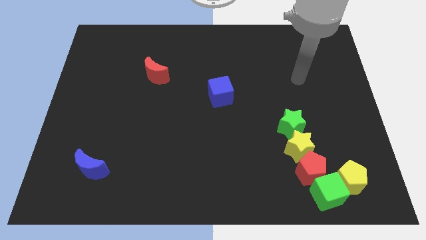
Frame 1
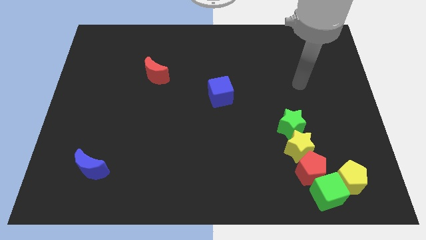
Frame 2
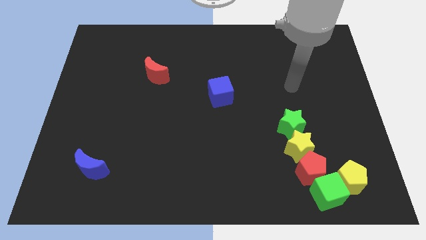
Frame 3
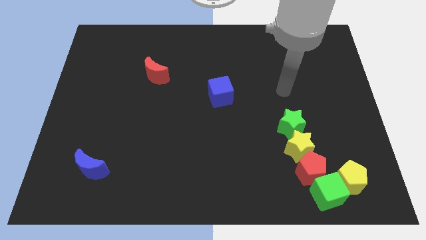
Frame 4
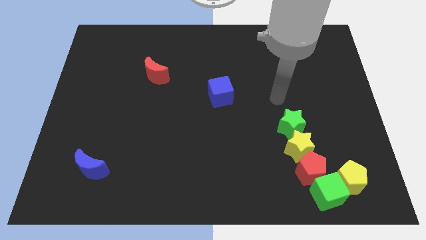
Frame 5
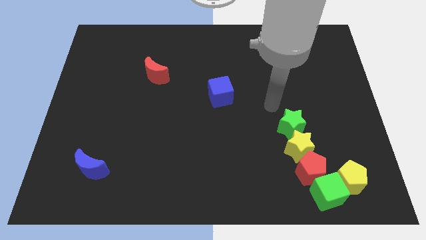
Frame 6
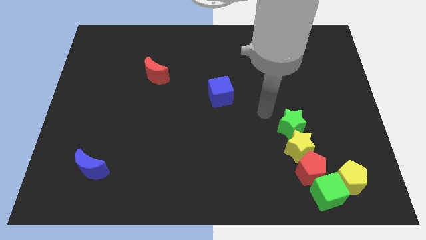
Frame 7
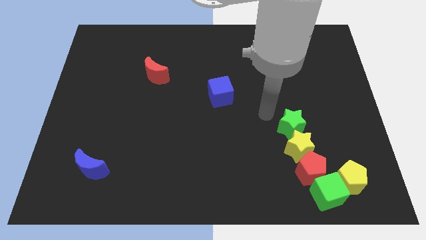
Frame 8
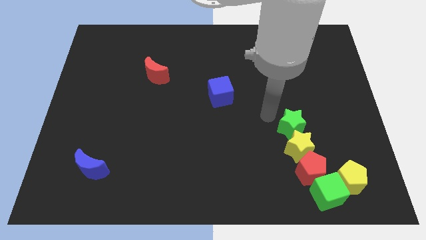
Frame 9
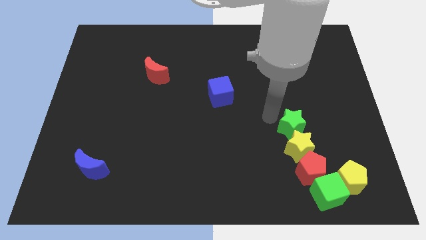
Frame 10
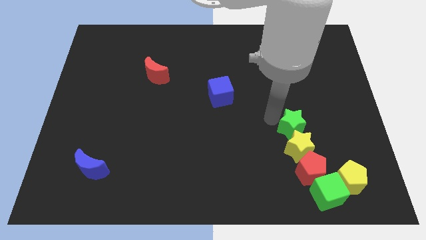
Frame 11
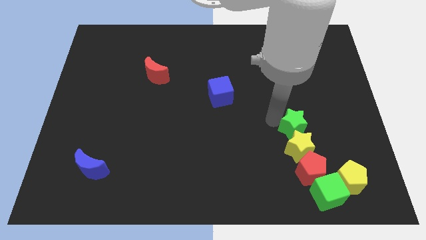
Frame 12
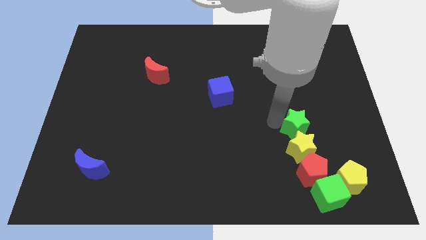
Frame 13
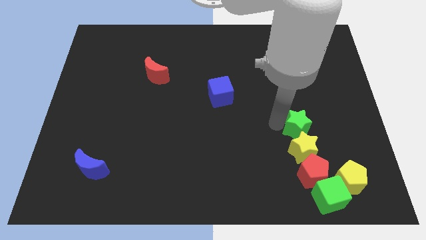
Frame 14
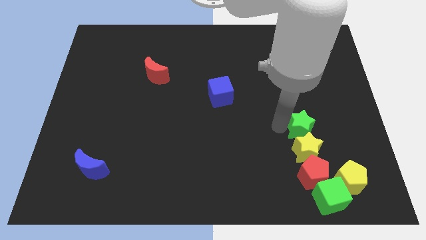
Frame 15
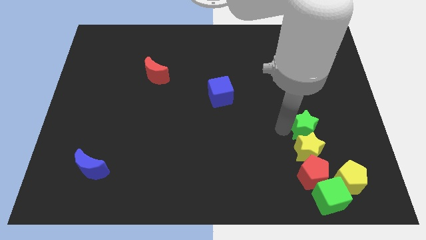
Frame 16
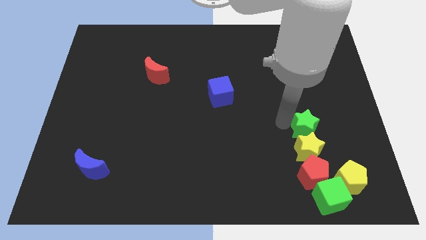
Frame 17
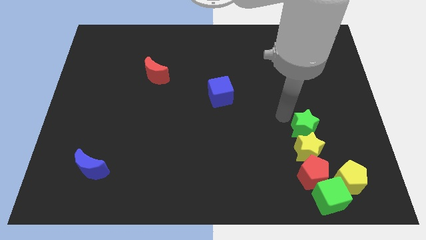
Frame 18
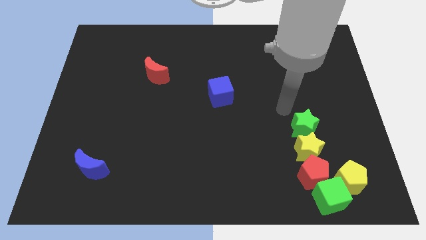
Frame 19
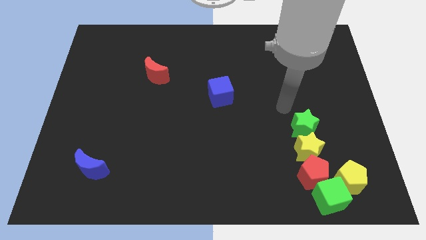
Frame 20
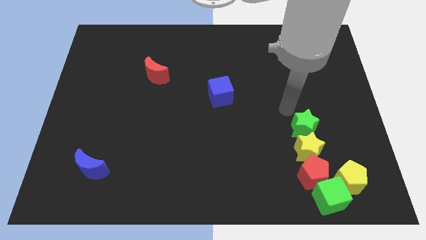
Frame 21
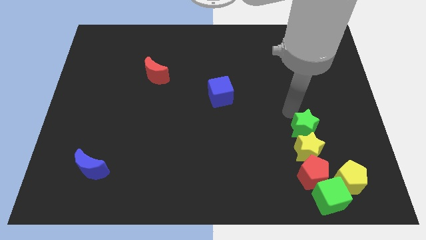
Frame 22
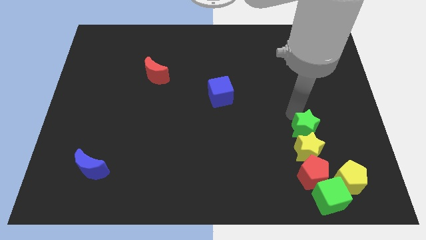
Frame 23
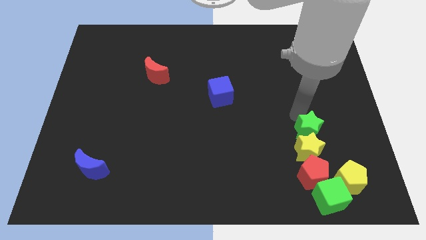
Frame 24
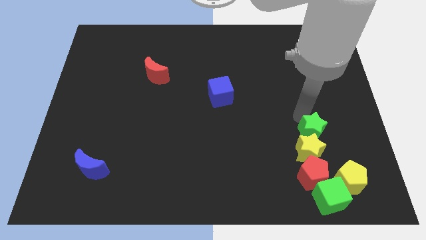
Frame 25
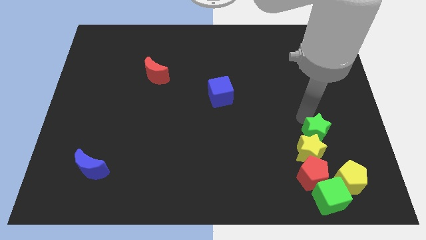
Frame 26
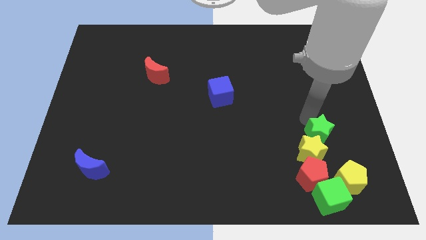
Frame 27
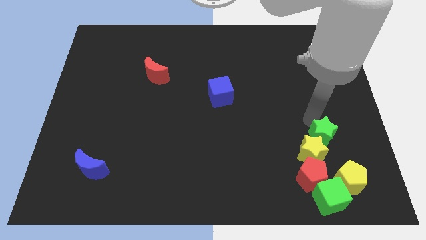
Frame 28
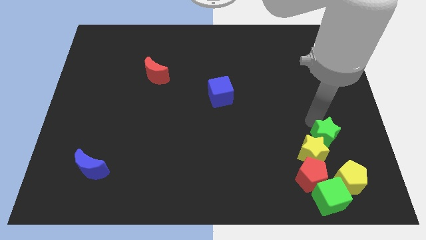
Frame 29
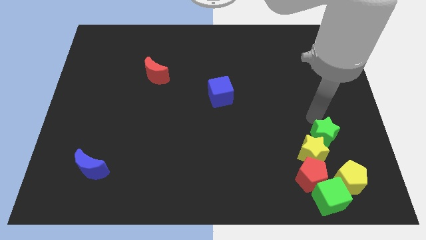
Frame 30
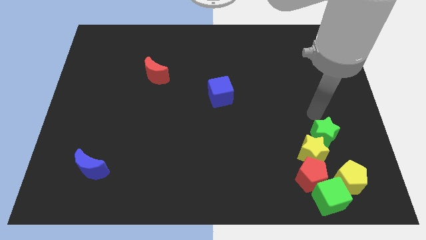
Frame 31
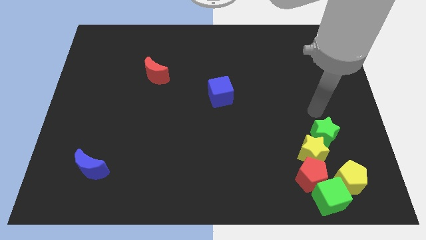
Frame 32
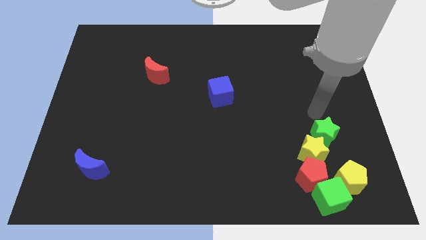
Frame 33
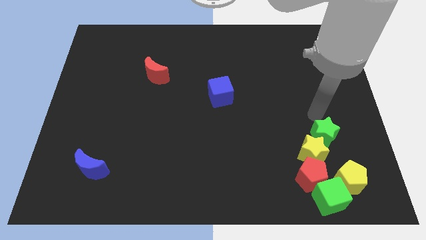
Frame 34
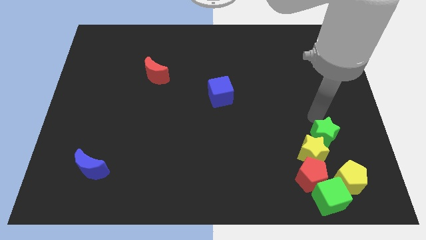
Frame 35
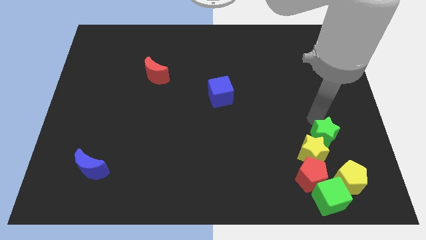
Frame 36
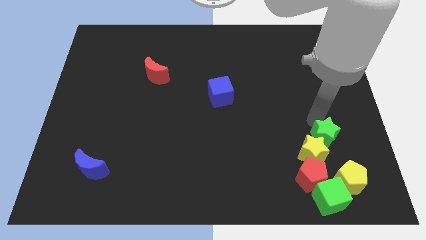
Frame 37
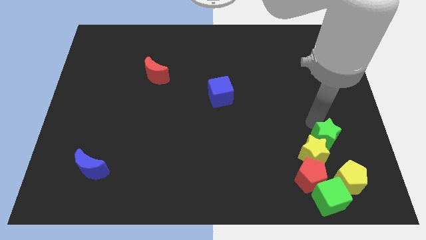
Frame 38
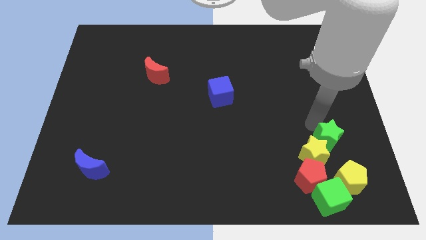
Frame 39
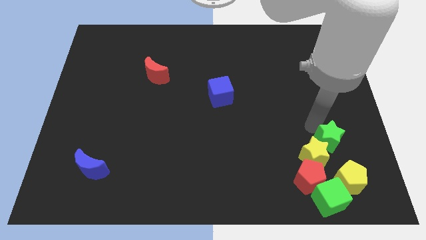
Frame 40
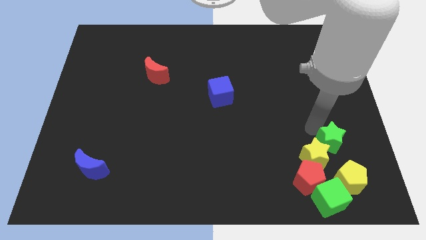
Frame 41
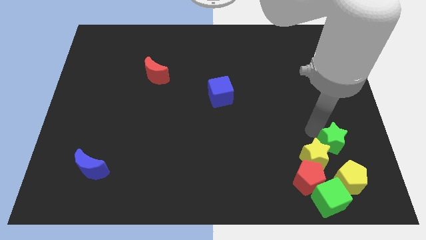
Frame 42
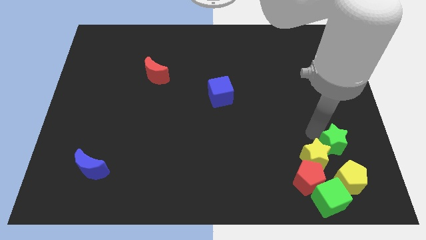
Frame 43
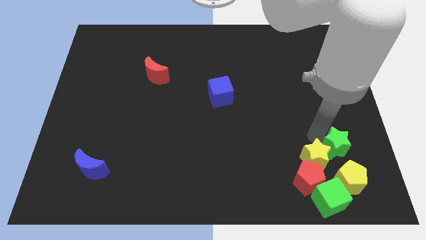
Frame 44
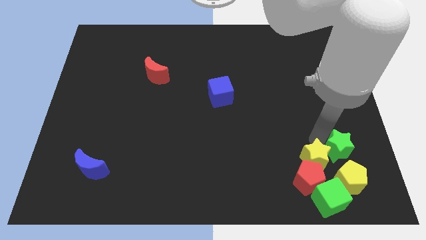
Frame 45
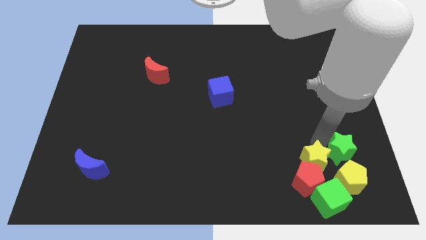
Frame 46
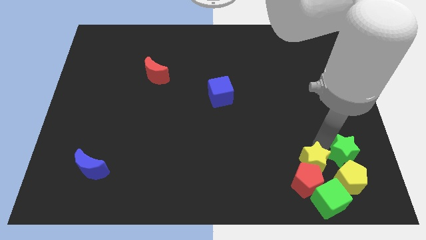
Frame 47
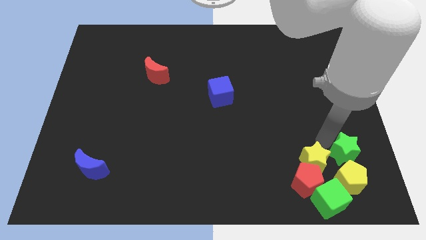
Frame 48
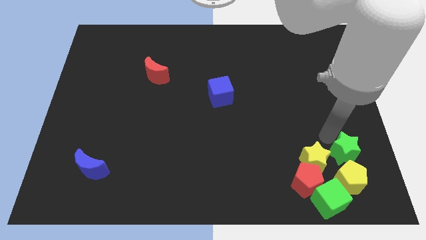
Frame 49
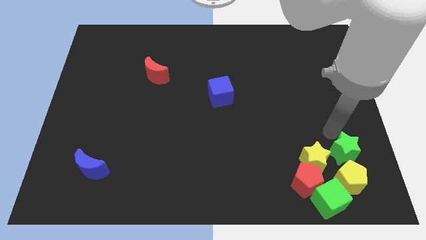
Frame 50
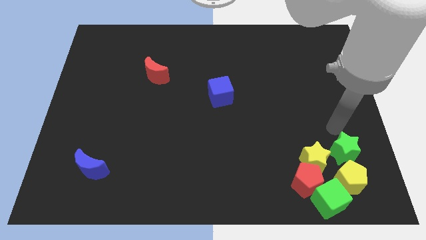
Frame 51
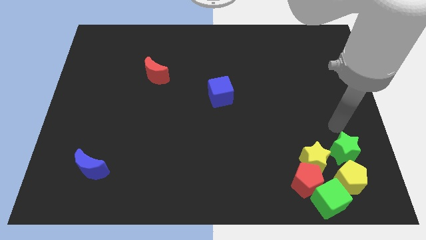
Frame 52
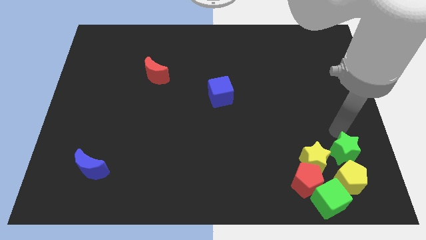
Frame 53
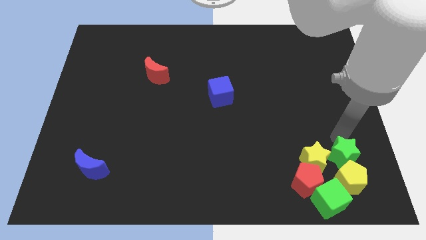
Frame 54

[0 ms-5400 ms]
put the green star to the yellow pentagon

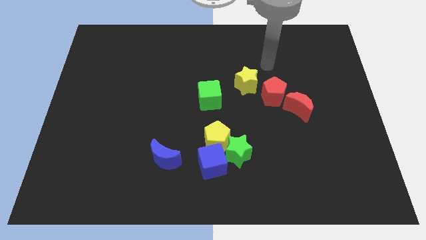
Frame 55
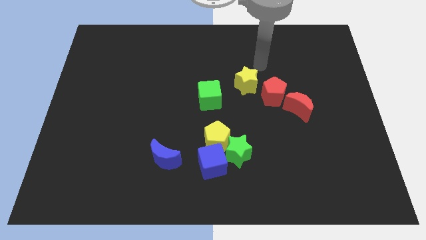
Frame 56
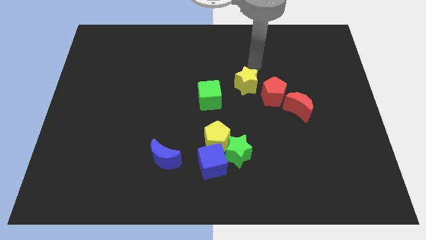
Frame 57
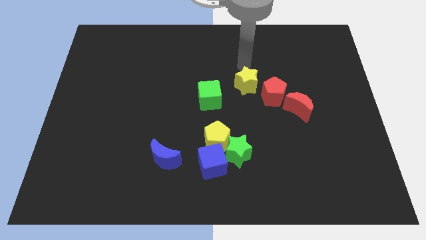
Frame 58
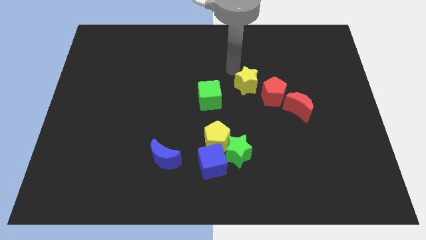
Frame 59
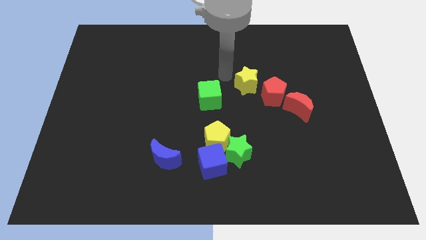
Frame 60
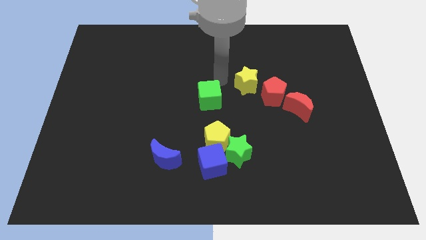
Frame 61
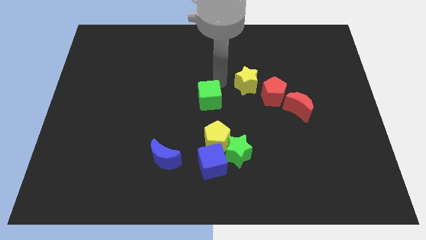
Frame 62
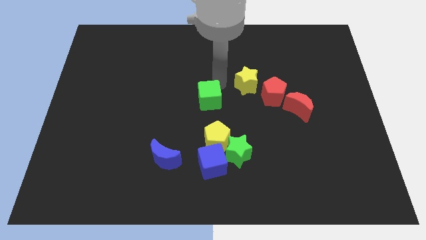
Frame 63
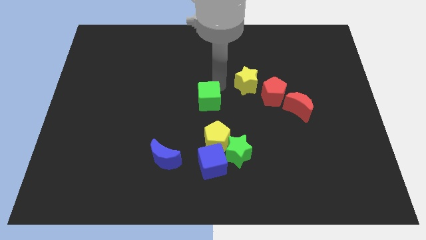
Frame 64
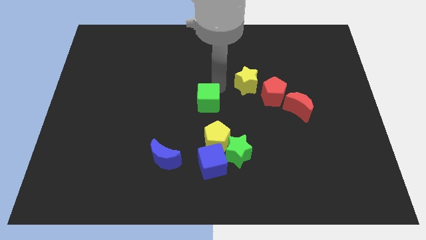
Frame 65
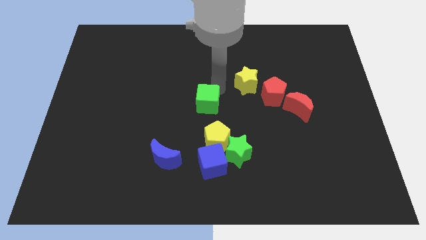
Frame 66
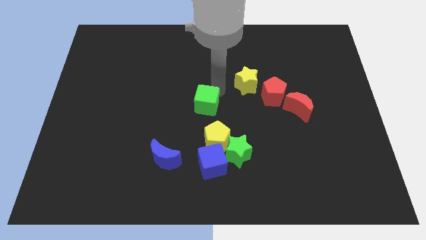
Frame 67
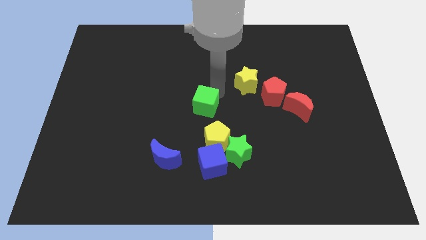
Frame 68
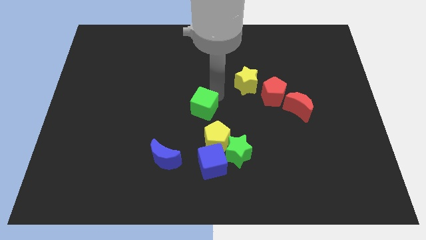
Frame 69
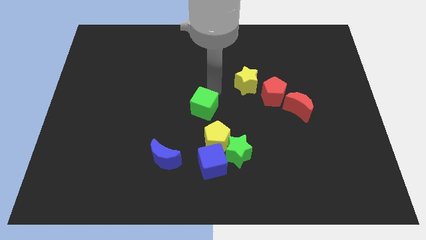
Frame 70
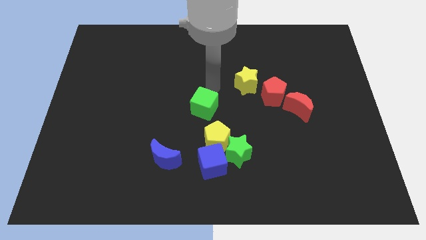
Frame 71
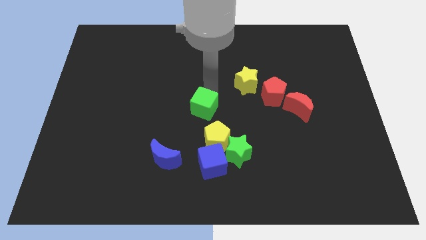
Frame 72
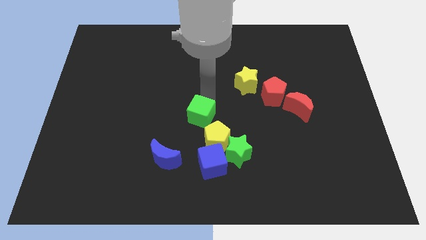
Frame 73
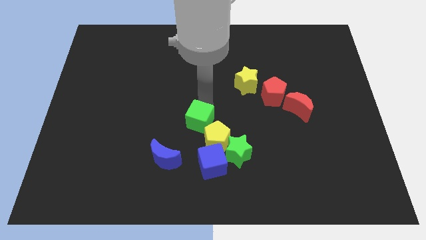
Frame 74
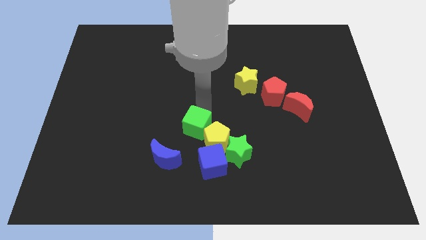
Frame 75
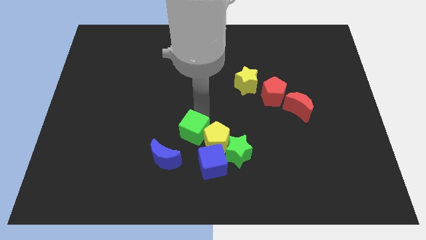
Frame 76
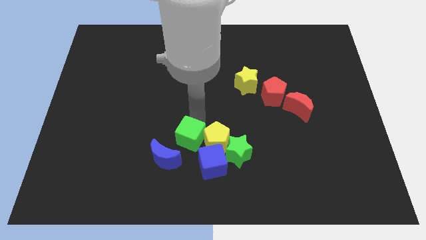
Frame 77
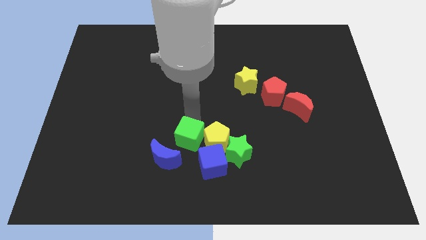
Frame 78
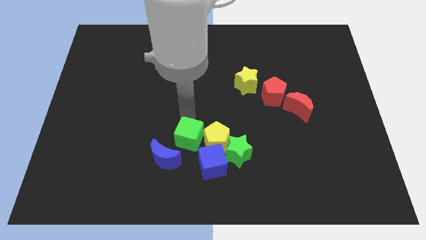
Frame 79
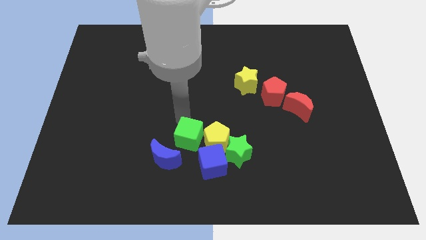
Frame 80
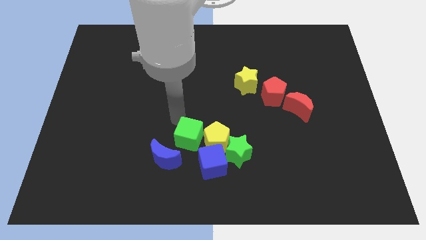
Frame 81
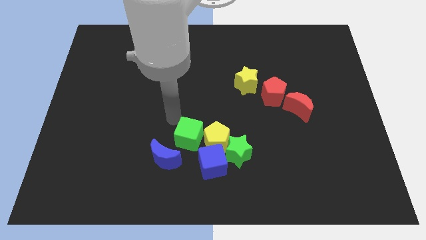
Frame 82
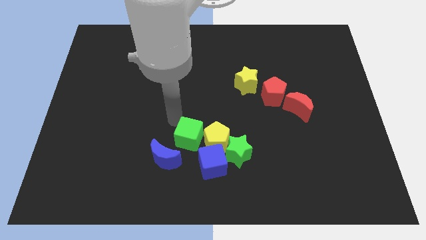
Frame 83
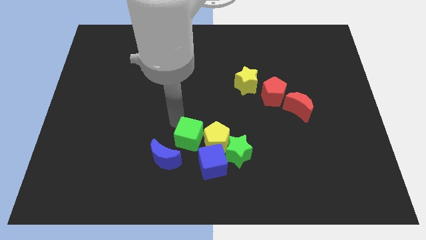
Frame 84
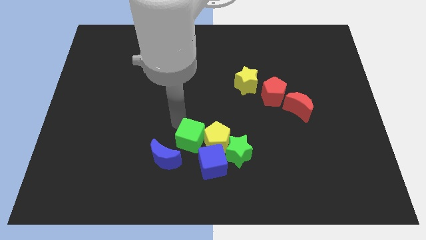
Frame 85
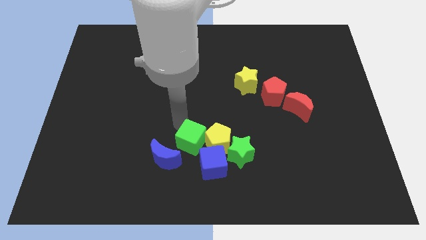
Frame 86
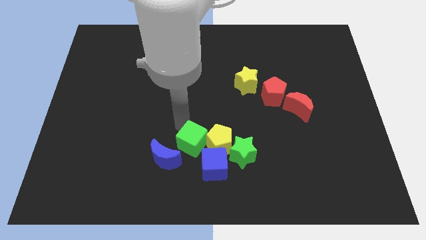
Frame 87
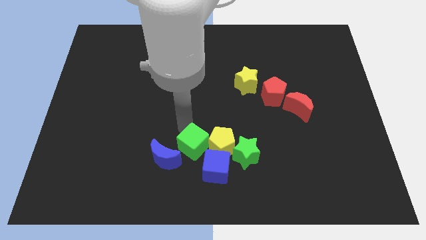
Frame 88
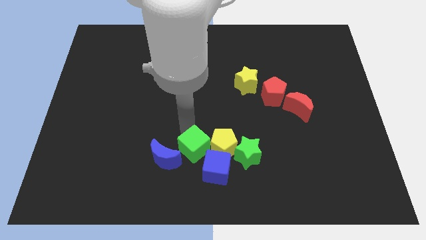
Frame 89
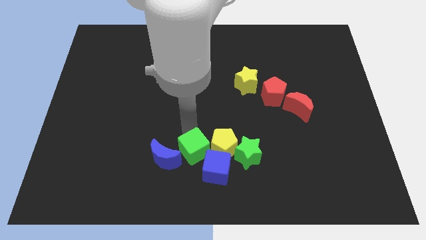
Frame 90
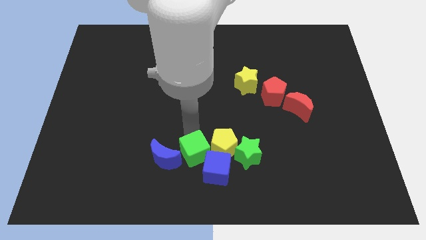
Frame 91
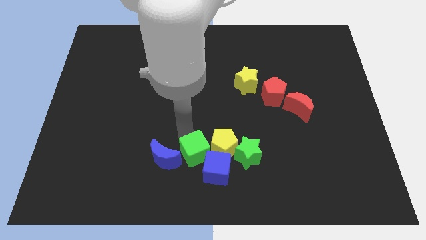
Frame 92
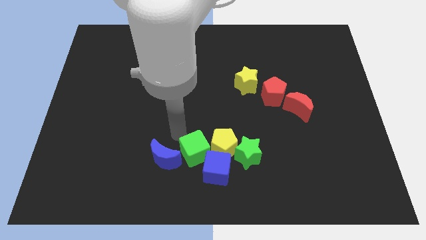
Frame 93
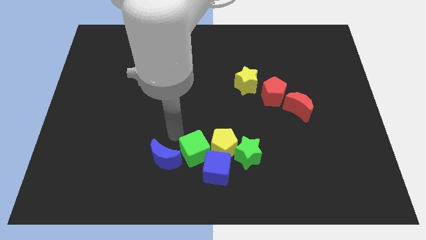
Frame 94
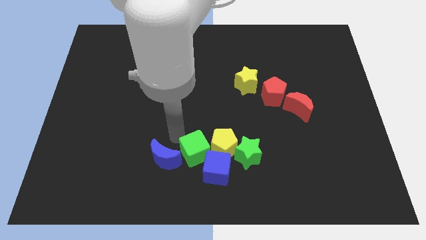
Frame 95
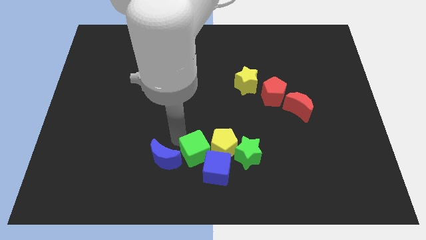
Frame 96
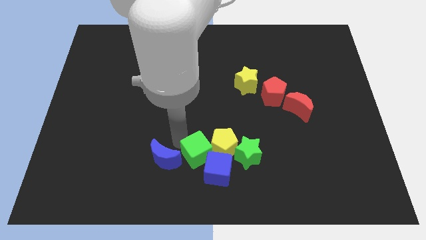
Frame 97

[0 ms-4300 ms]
slide the green cube next to the blue cube
